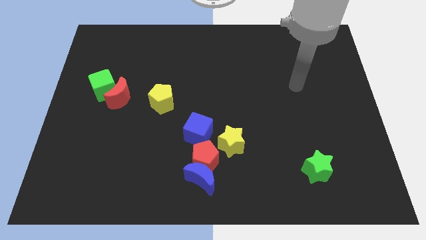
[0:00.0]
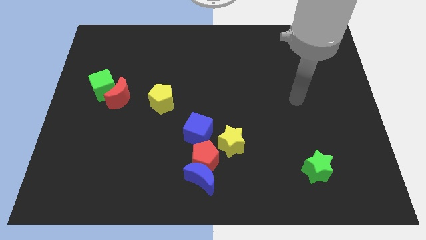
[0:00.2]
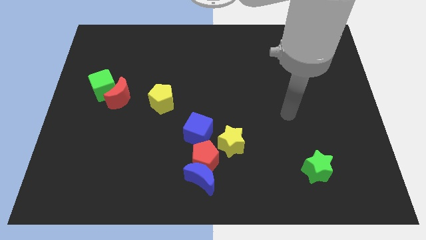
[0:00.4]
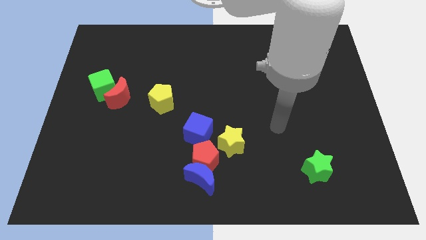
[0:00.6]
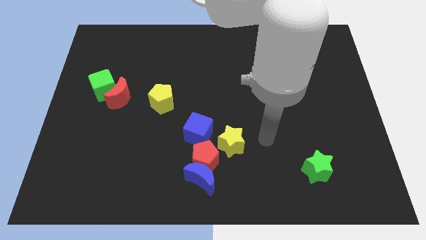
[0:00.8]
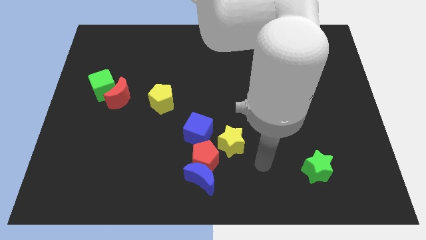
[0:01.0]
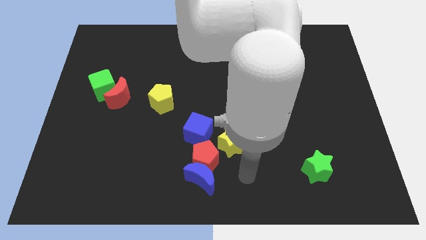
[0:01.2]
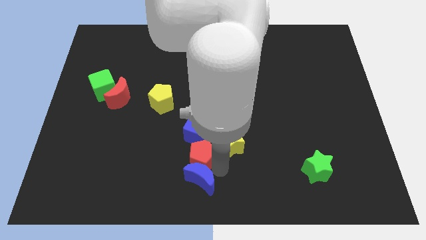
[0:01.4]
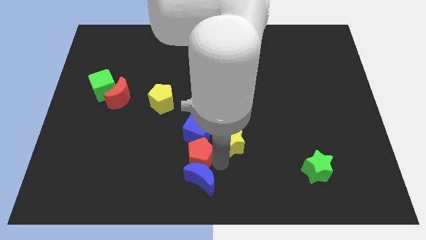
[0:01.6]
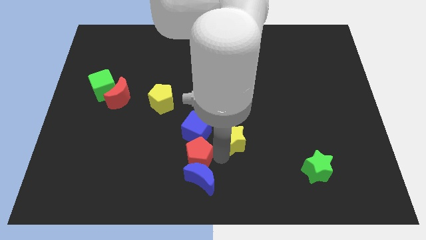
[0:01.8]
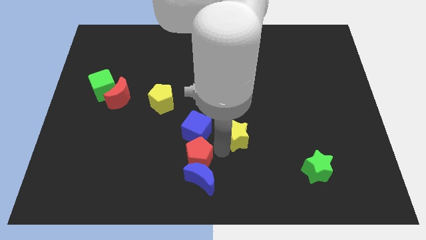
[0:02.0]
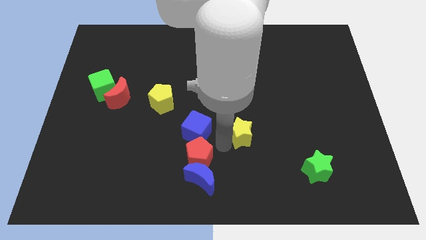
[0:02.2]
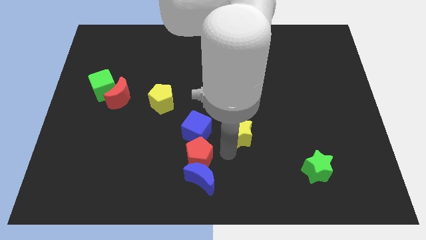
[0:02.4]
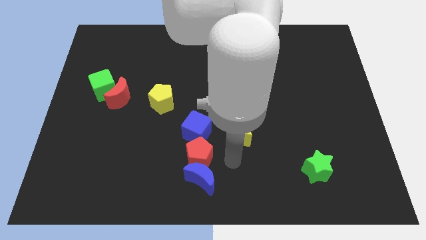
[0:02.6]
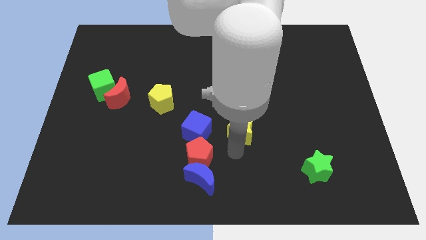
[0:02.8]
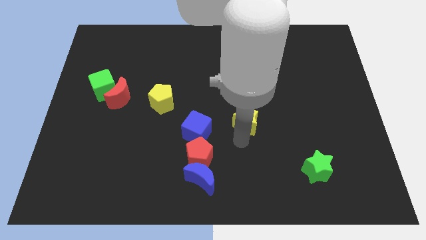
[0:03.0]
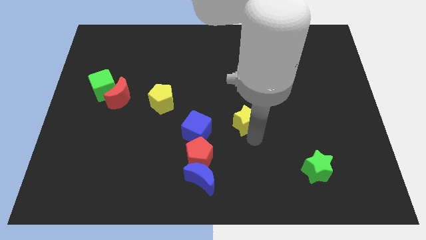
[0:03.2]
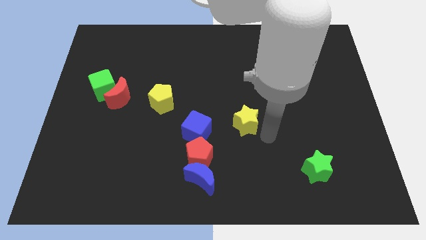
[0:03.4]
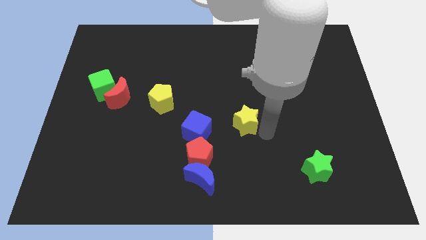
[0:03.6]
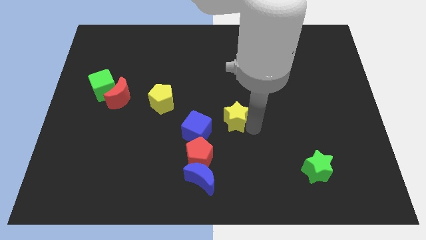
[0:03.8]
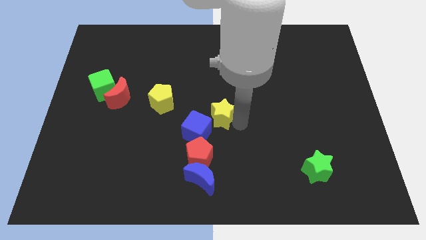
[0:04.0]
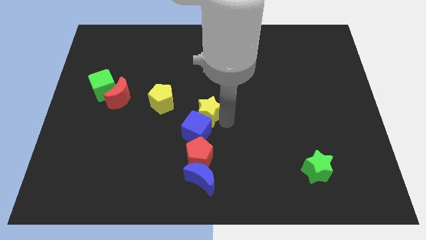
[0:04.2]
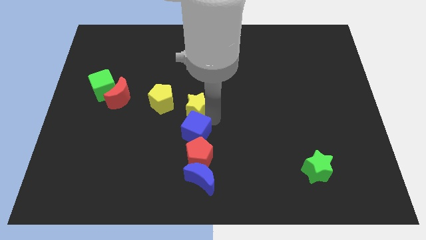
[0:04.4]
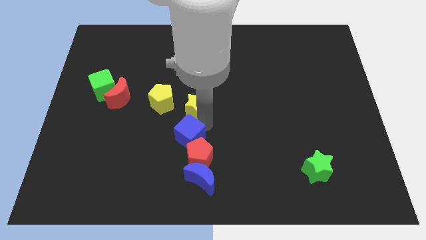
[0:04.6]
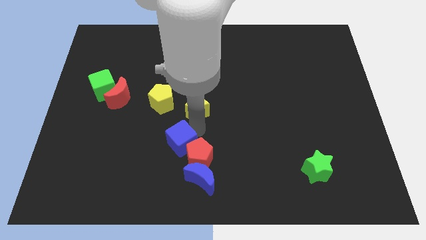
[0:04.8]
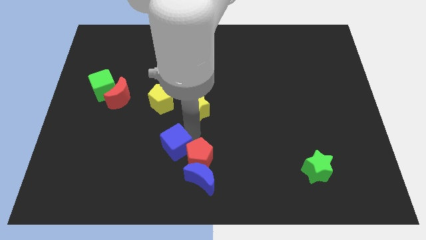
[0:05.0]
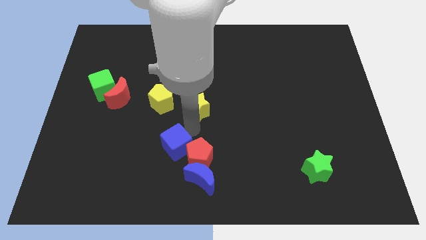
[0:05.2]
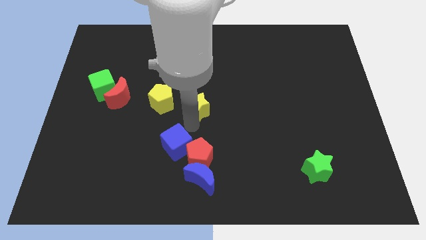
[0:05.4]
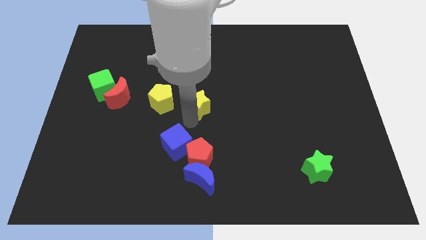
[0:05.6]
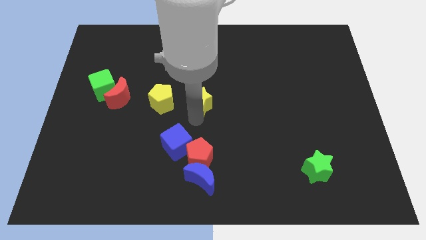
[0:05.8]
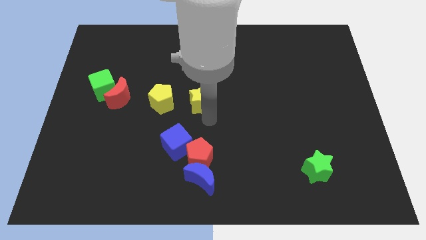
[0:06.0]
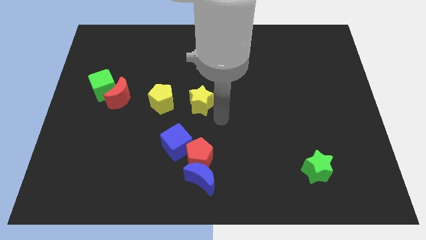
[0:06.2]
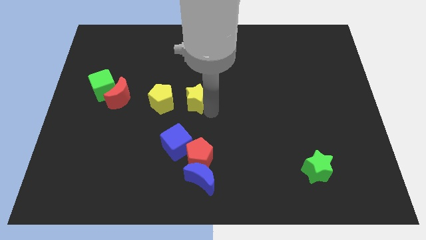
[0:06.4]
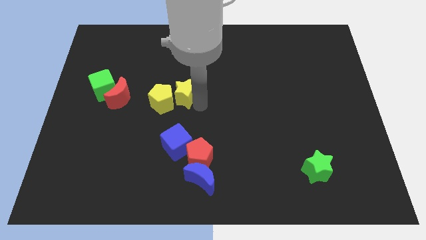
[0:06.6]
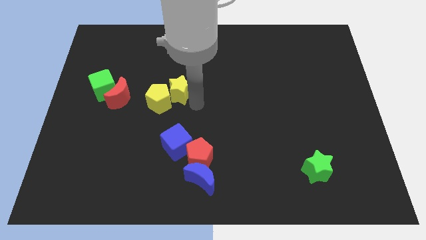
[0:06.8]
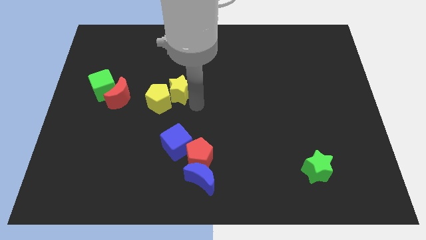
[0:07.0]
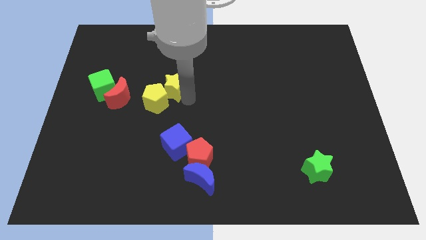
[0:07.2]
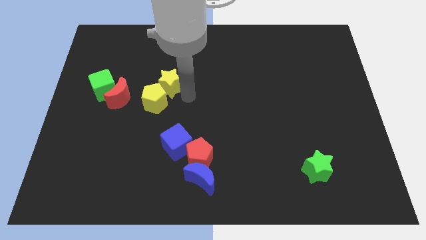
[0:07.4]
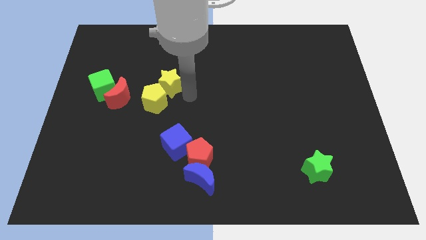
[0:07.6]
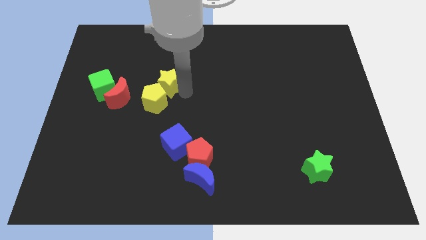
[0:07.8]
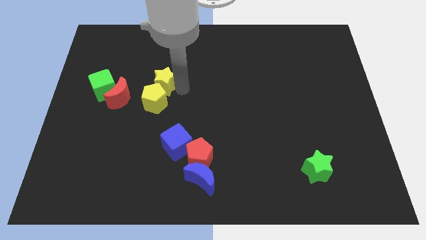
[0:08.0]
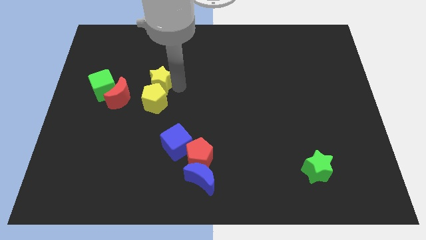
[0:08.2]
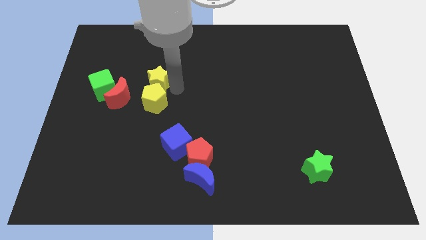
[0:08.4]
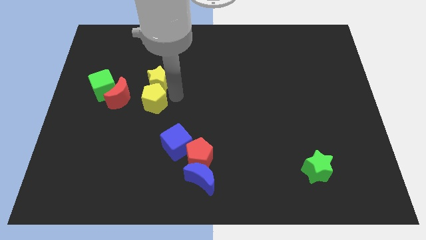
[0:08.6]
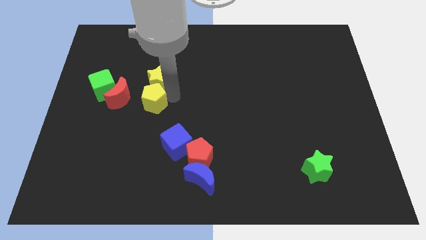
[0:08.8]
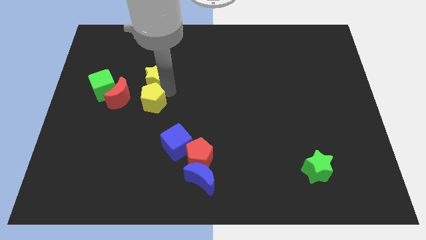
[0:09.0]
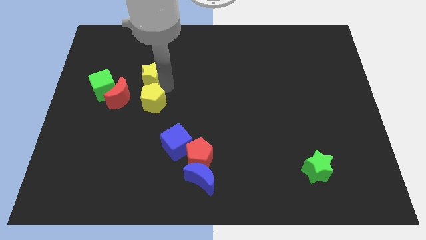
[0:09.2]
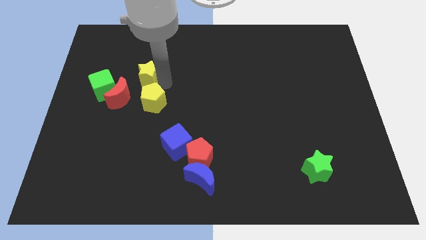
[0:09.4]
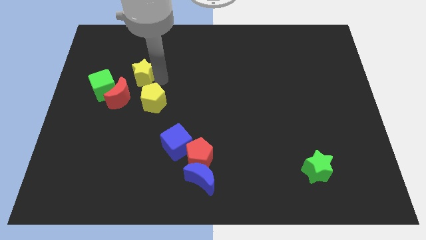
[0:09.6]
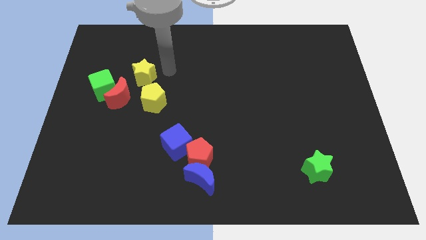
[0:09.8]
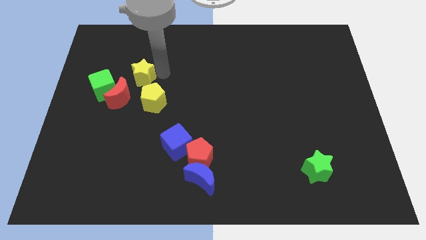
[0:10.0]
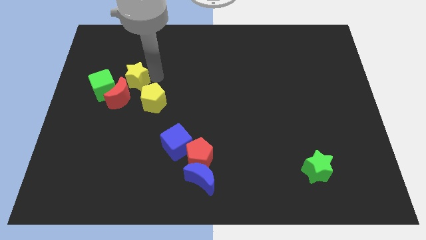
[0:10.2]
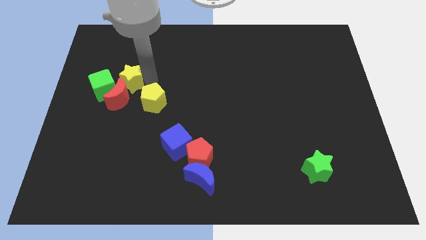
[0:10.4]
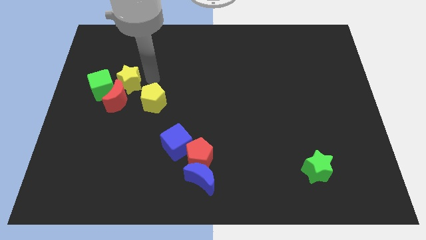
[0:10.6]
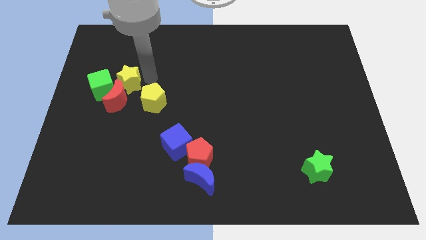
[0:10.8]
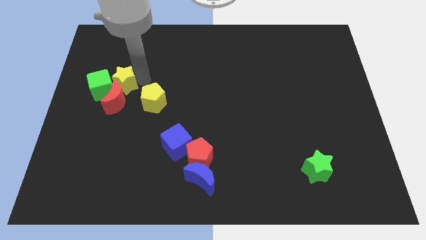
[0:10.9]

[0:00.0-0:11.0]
move the yellow star close to the green cube

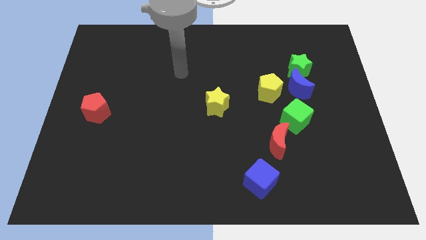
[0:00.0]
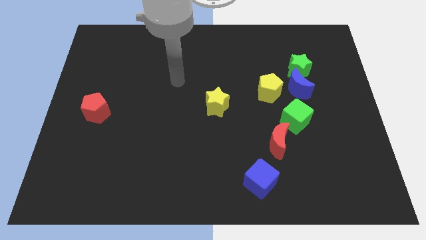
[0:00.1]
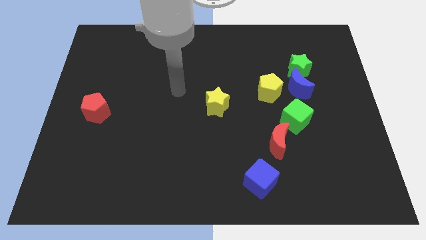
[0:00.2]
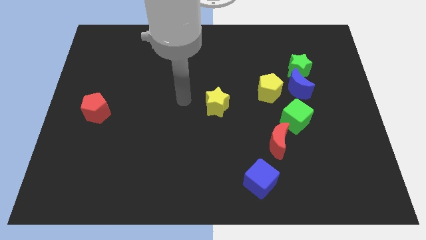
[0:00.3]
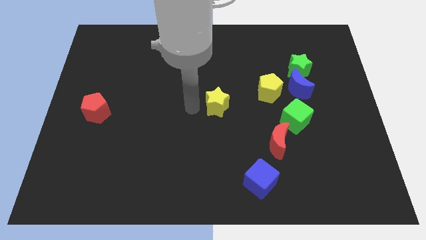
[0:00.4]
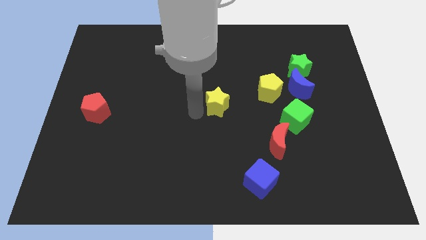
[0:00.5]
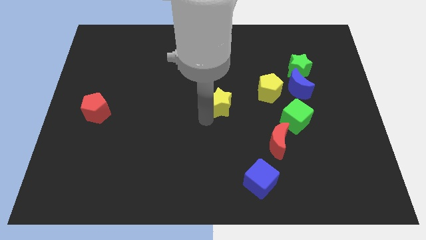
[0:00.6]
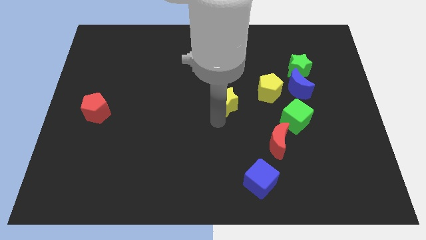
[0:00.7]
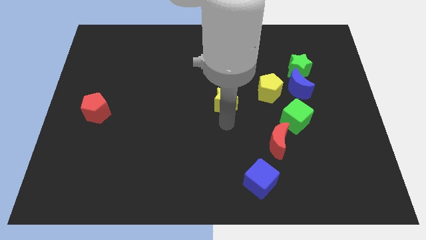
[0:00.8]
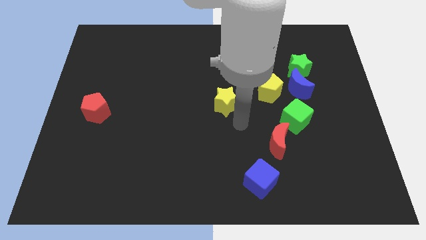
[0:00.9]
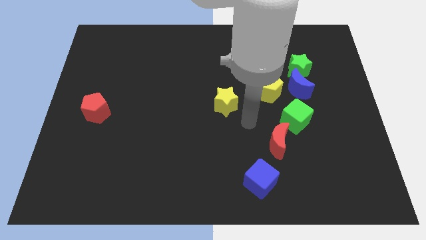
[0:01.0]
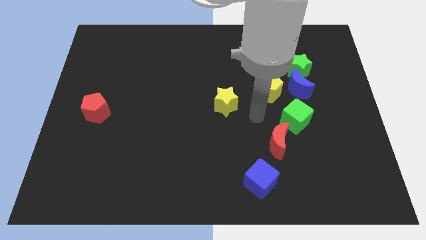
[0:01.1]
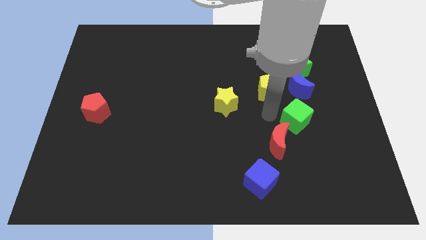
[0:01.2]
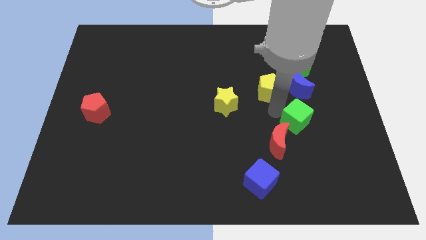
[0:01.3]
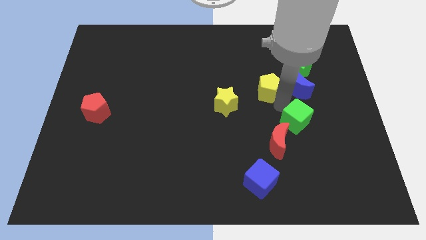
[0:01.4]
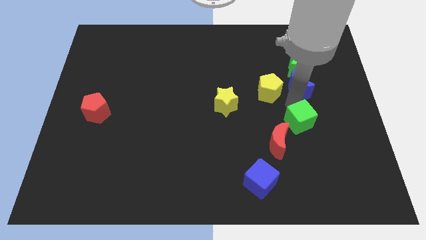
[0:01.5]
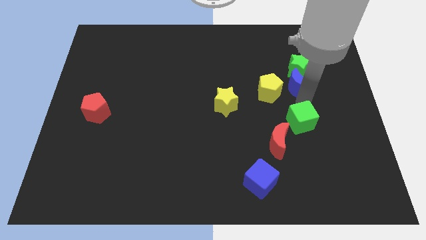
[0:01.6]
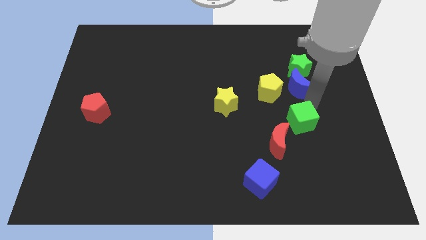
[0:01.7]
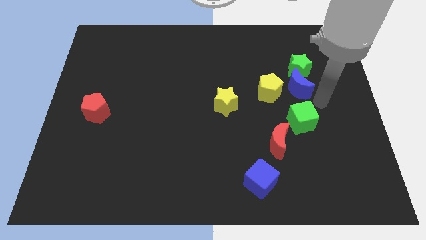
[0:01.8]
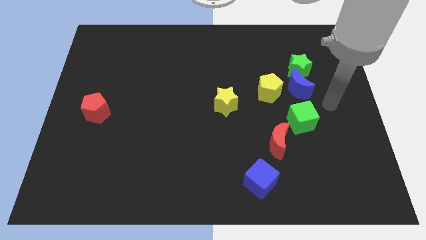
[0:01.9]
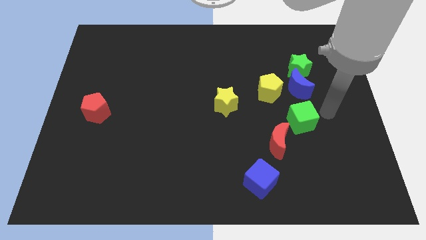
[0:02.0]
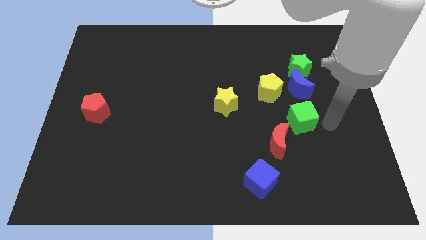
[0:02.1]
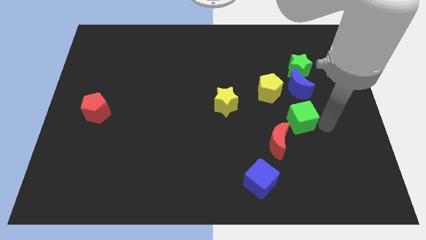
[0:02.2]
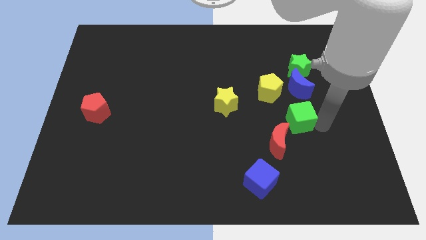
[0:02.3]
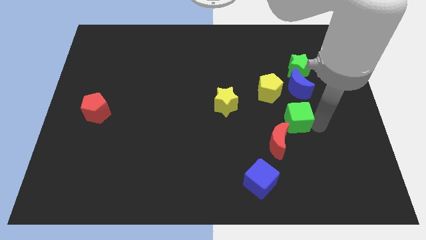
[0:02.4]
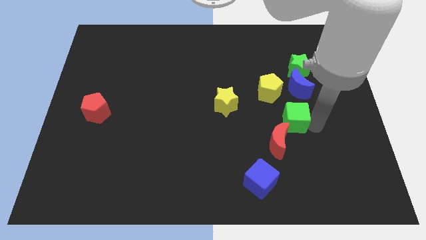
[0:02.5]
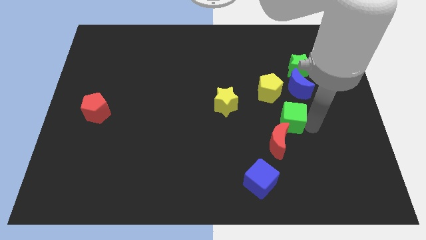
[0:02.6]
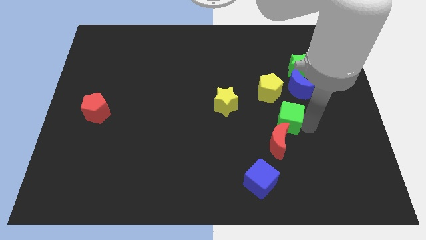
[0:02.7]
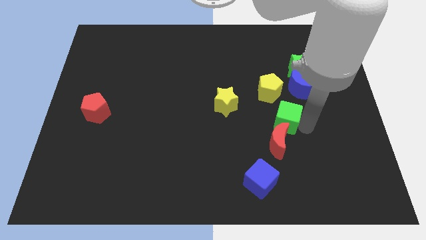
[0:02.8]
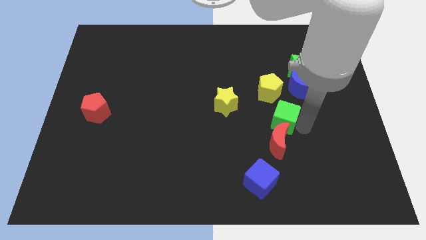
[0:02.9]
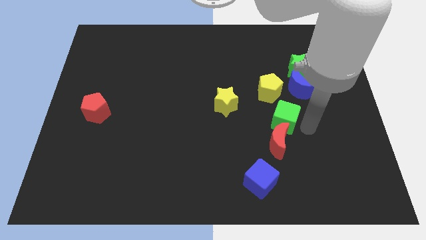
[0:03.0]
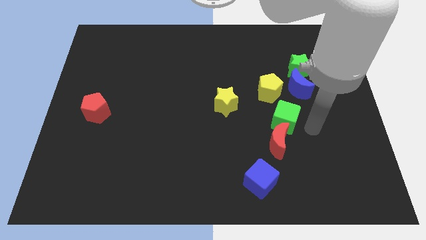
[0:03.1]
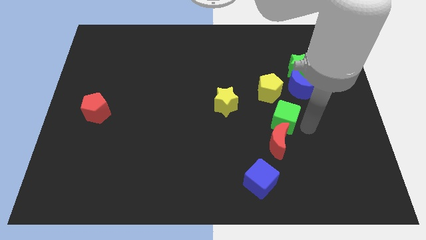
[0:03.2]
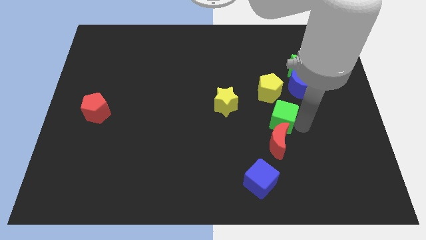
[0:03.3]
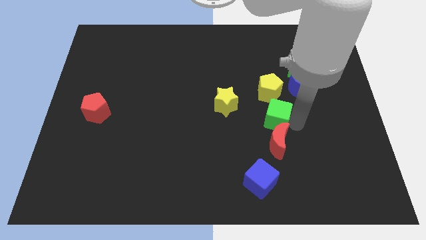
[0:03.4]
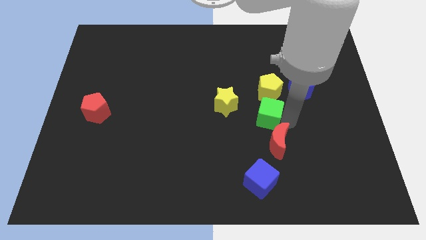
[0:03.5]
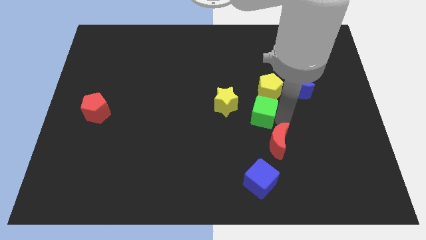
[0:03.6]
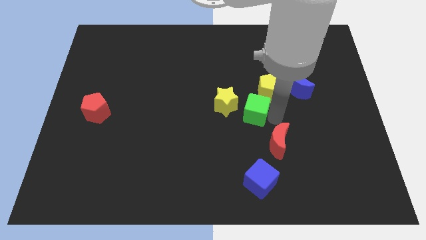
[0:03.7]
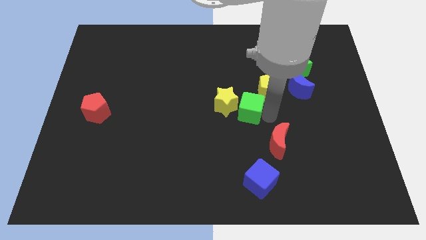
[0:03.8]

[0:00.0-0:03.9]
push the green cube to the yellow star
